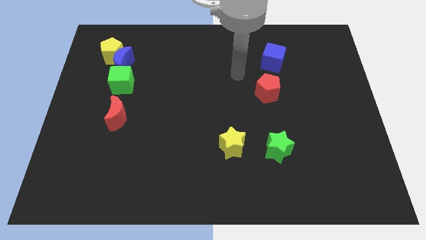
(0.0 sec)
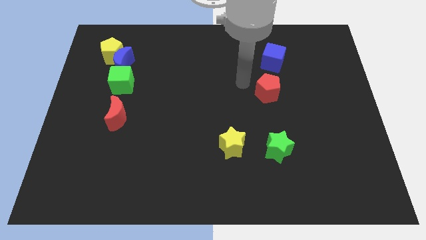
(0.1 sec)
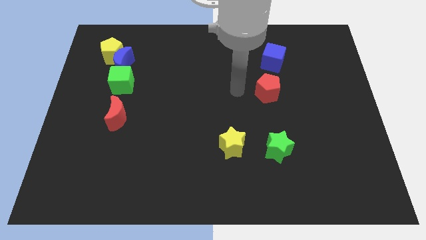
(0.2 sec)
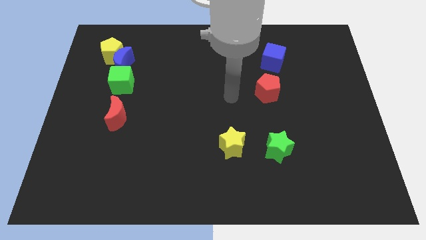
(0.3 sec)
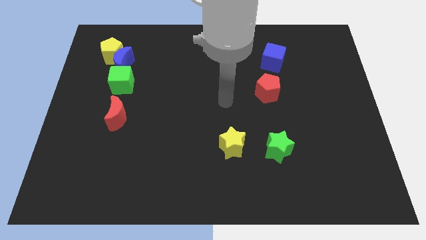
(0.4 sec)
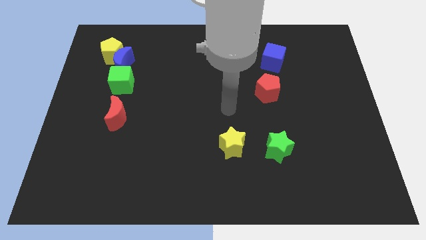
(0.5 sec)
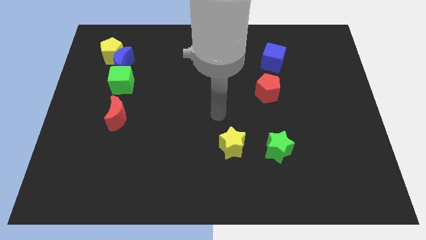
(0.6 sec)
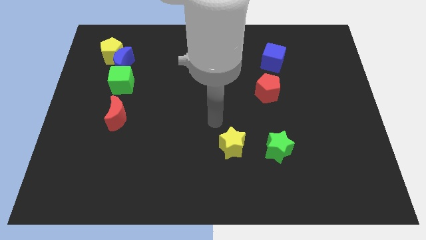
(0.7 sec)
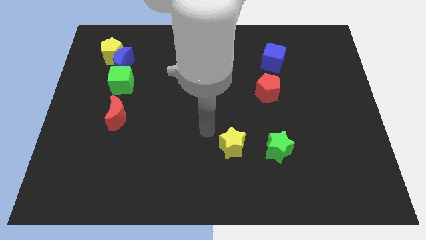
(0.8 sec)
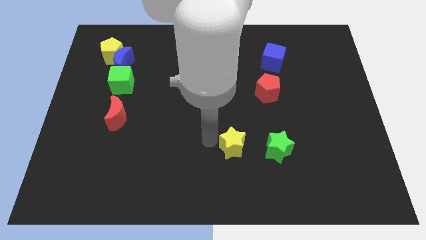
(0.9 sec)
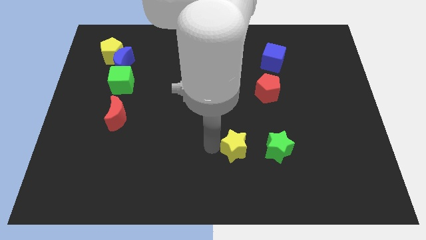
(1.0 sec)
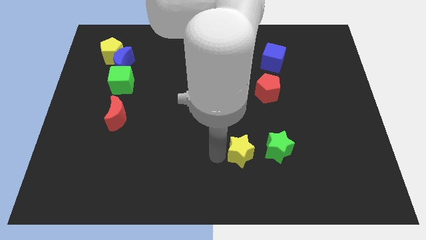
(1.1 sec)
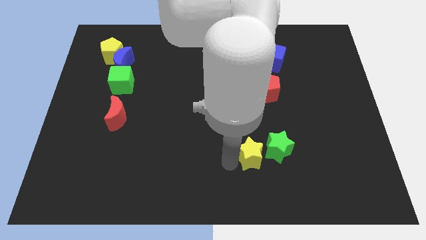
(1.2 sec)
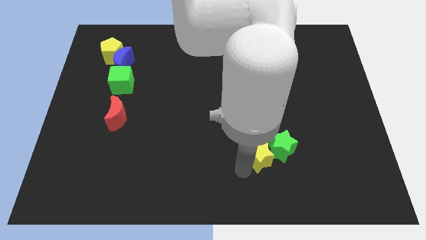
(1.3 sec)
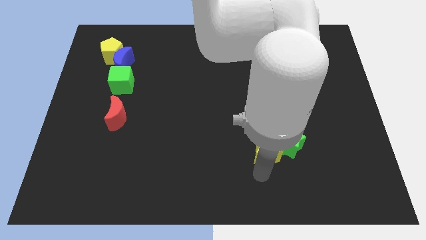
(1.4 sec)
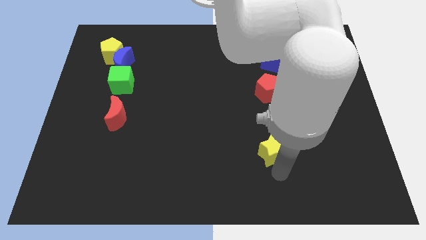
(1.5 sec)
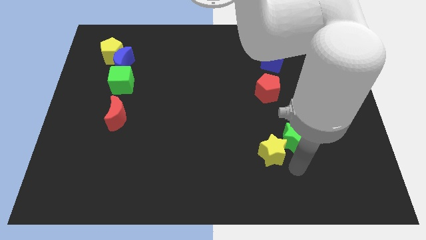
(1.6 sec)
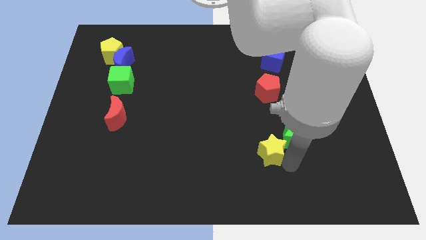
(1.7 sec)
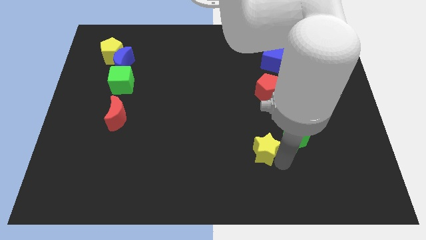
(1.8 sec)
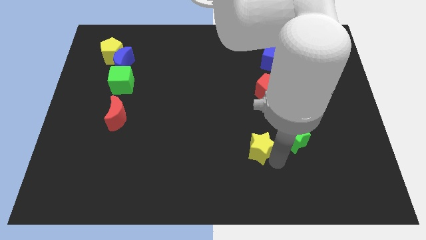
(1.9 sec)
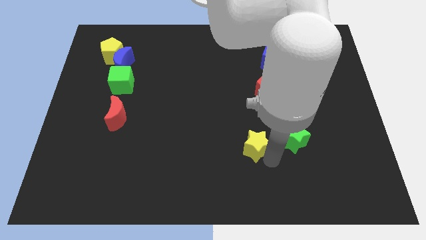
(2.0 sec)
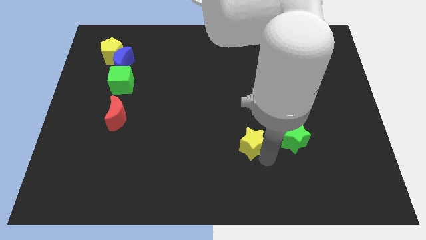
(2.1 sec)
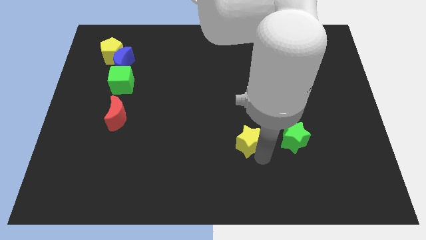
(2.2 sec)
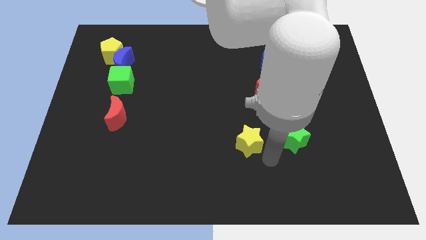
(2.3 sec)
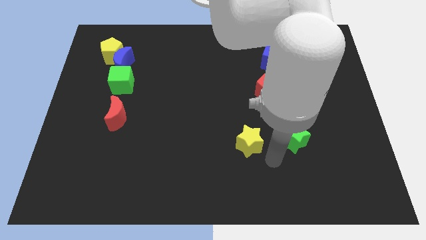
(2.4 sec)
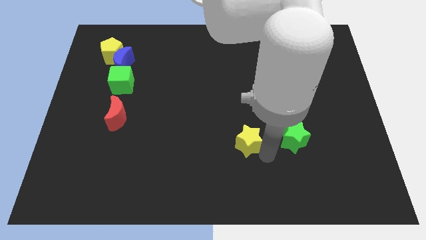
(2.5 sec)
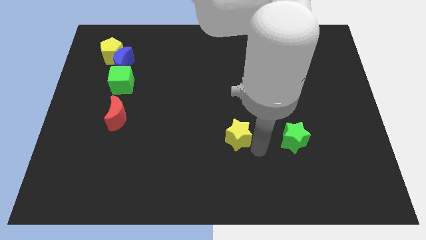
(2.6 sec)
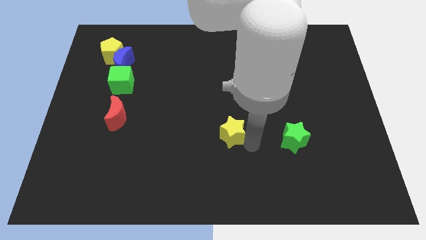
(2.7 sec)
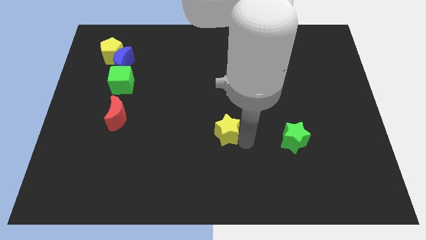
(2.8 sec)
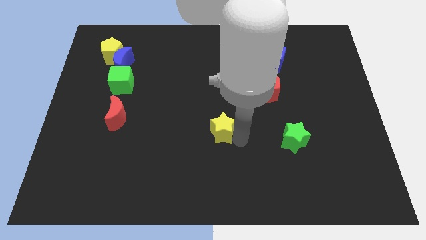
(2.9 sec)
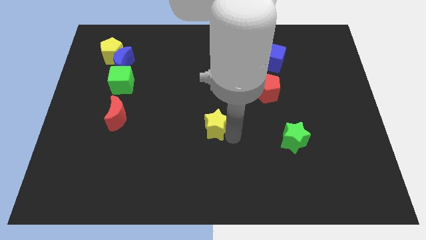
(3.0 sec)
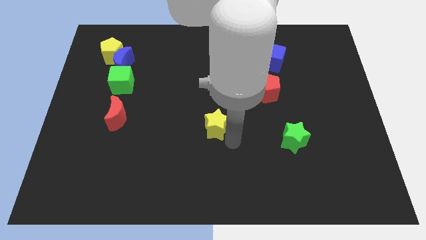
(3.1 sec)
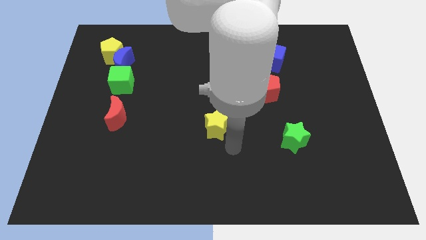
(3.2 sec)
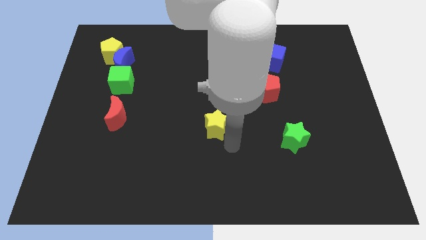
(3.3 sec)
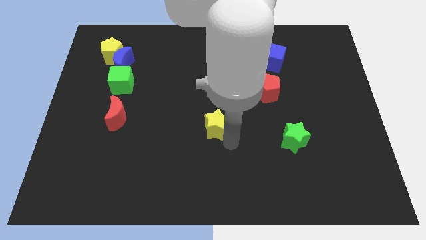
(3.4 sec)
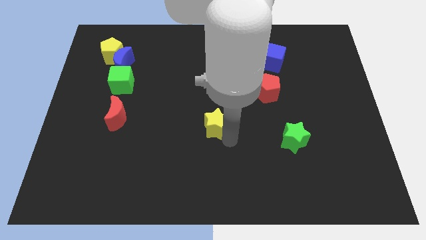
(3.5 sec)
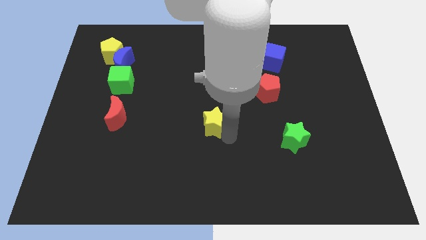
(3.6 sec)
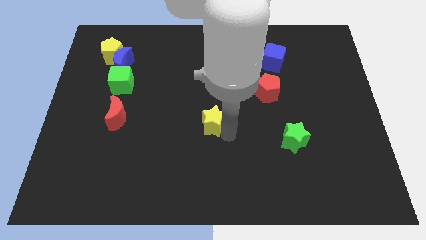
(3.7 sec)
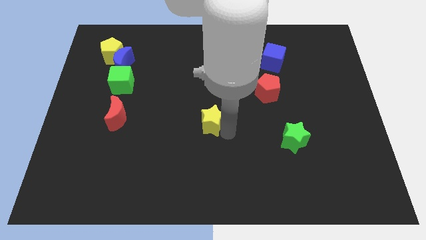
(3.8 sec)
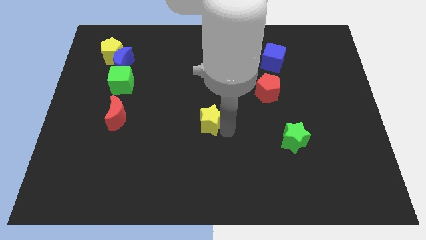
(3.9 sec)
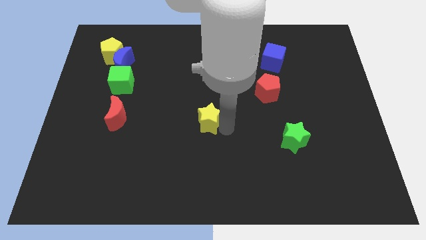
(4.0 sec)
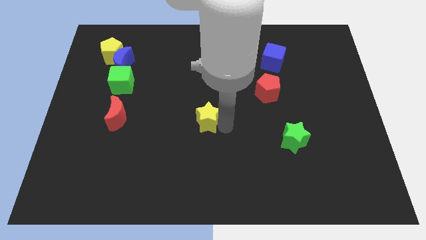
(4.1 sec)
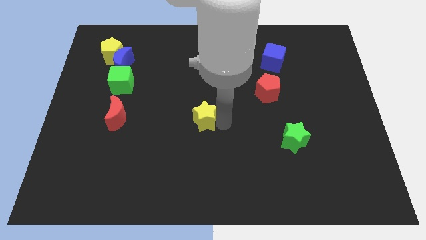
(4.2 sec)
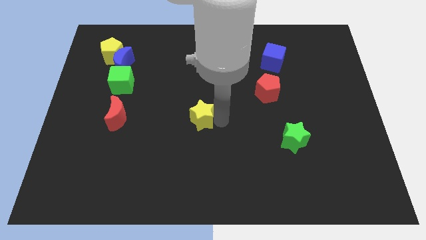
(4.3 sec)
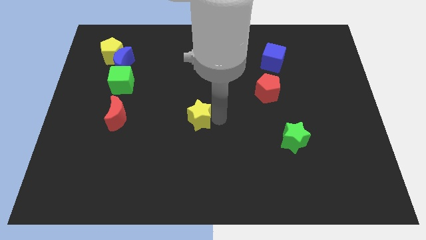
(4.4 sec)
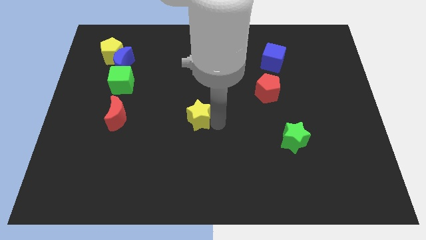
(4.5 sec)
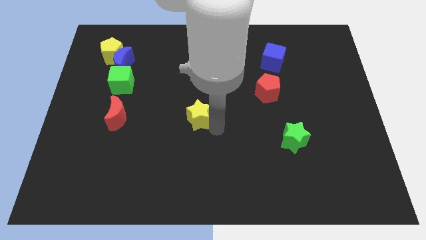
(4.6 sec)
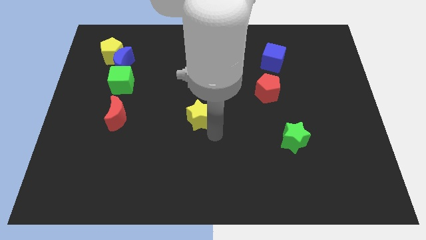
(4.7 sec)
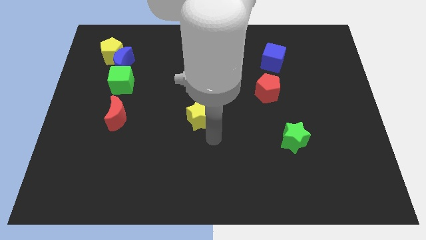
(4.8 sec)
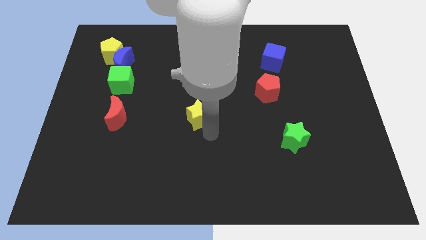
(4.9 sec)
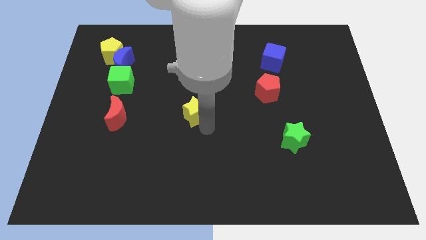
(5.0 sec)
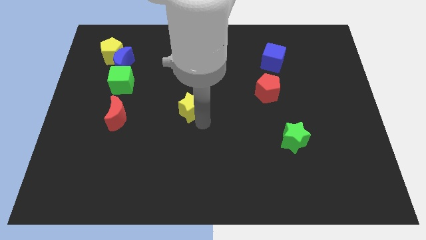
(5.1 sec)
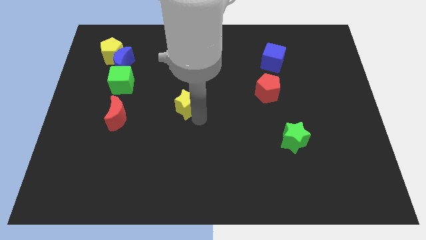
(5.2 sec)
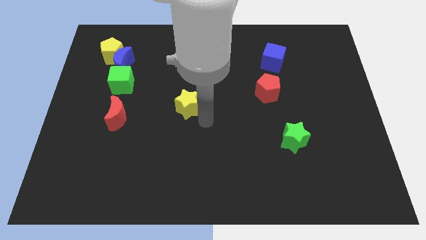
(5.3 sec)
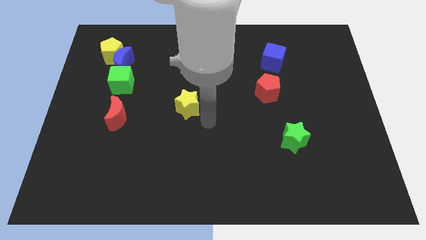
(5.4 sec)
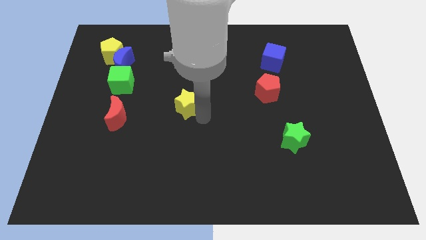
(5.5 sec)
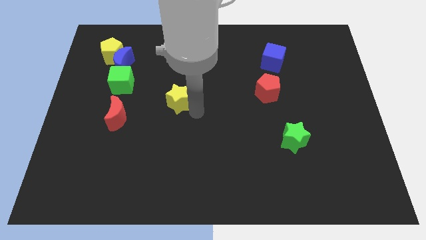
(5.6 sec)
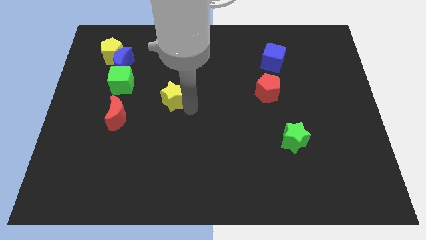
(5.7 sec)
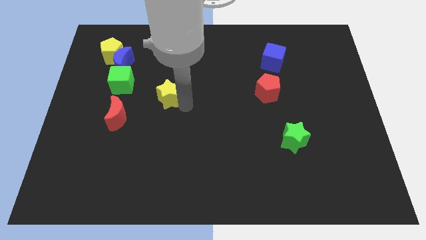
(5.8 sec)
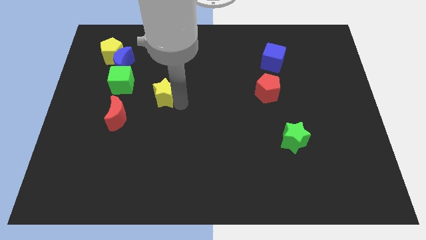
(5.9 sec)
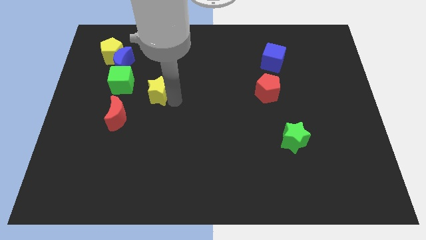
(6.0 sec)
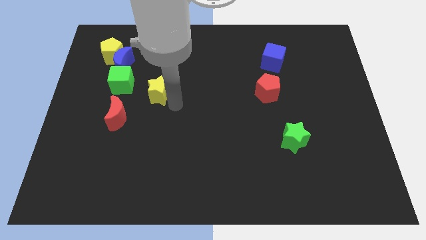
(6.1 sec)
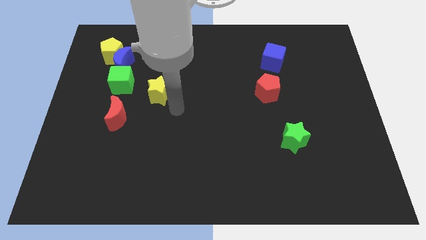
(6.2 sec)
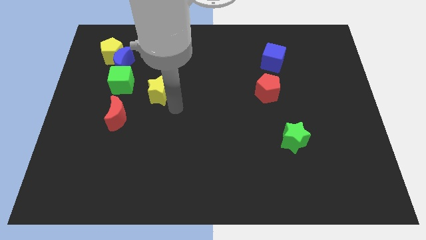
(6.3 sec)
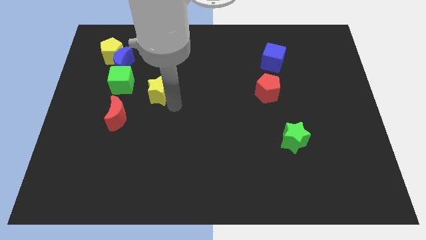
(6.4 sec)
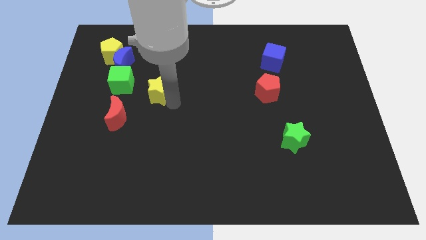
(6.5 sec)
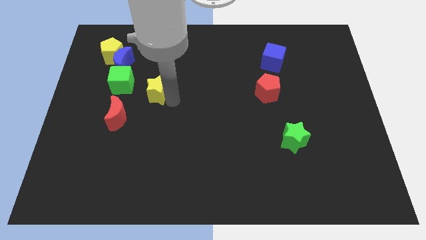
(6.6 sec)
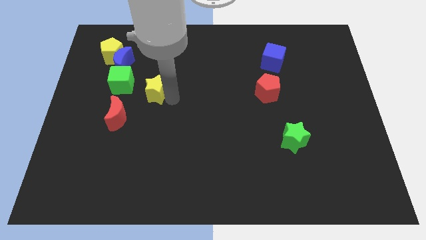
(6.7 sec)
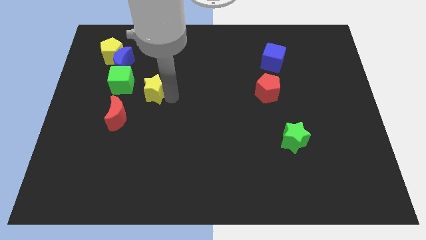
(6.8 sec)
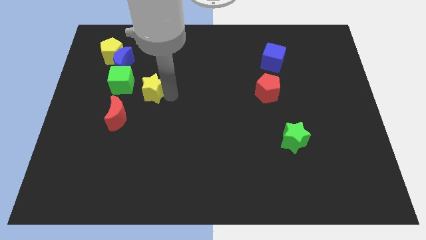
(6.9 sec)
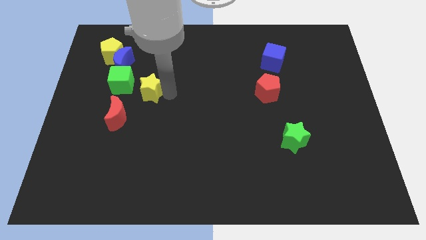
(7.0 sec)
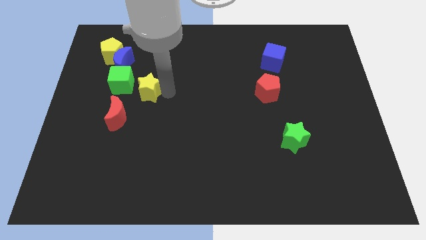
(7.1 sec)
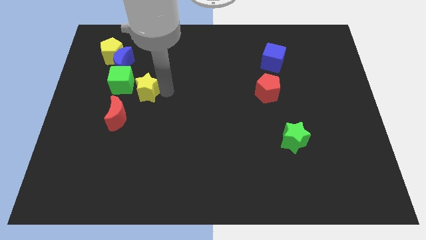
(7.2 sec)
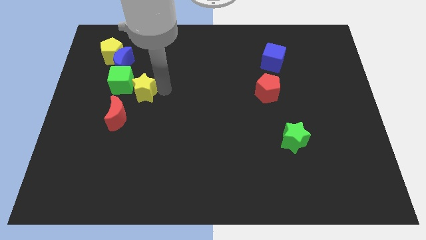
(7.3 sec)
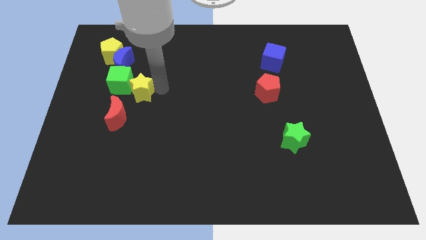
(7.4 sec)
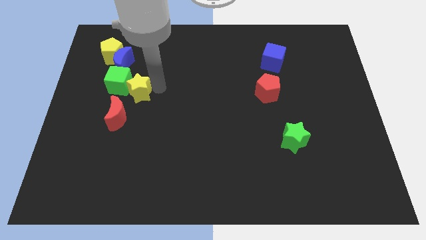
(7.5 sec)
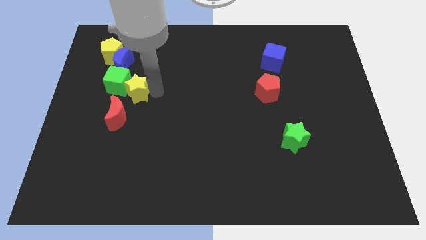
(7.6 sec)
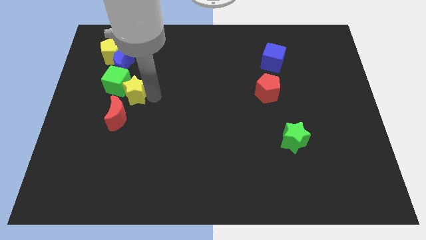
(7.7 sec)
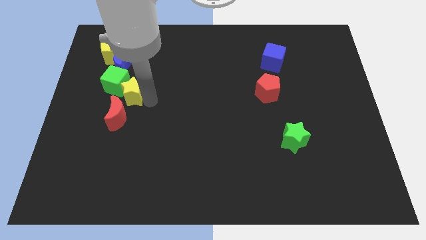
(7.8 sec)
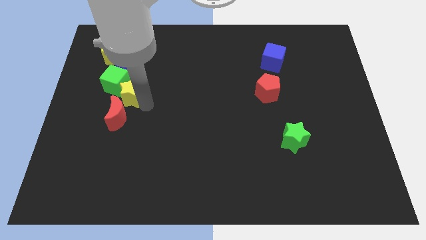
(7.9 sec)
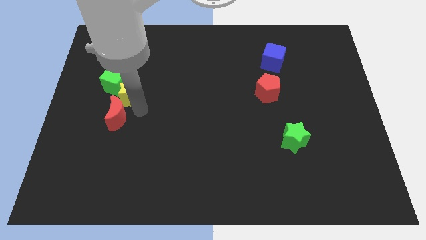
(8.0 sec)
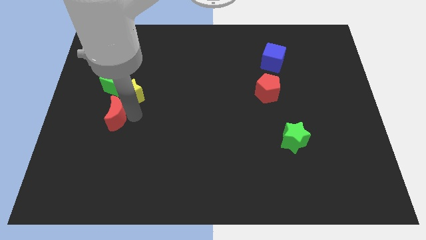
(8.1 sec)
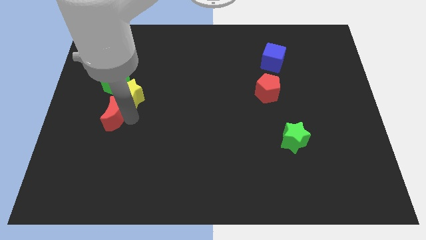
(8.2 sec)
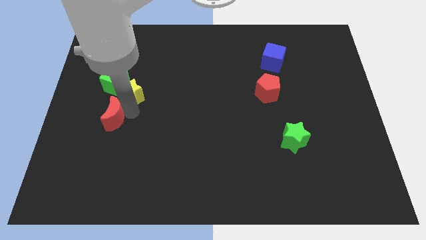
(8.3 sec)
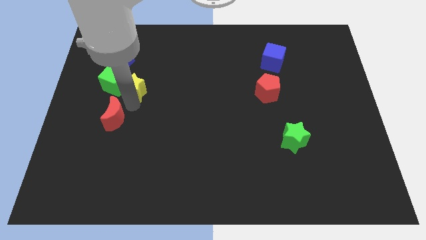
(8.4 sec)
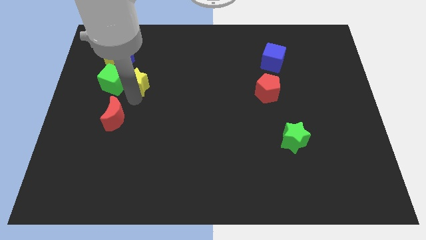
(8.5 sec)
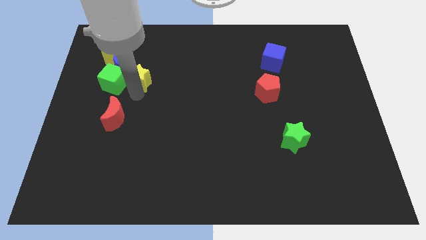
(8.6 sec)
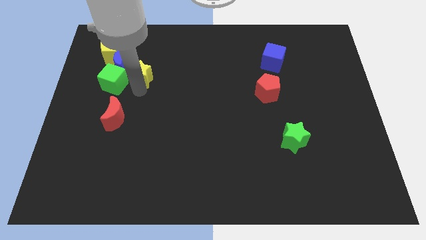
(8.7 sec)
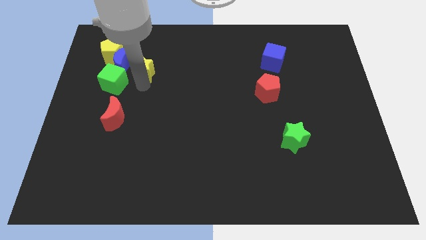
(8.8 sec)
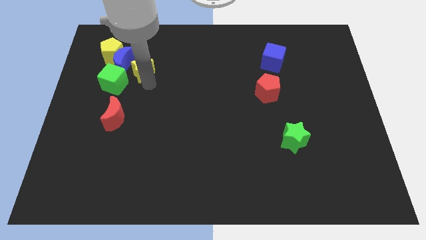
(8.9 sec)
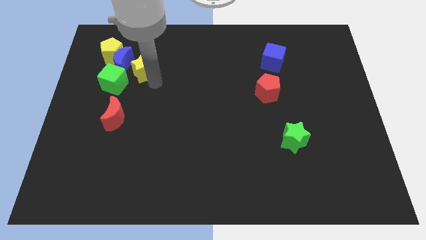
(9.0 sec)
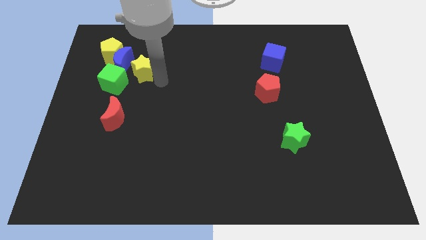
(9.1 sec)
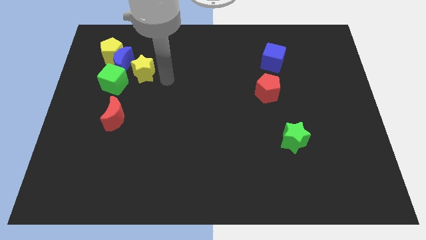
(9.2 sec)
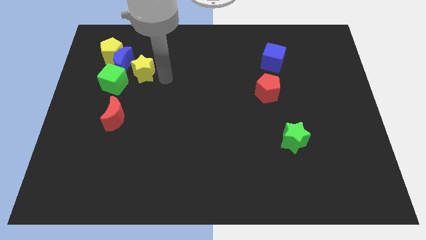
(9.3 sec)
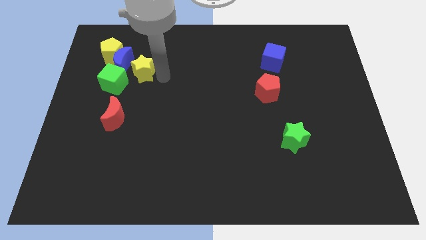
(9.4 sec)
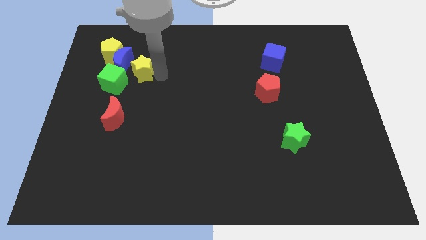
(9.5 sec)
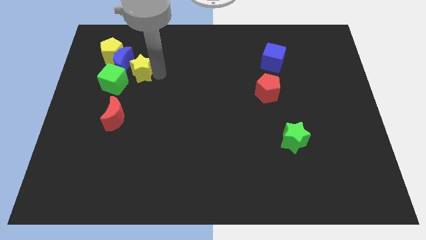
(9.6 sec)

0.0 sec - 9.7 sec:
move the yellow star next to the blue moon
